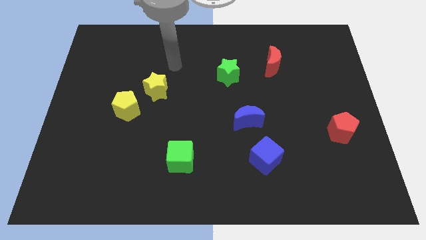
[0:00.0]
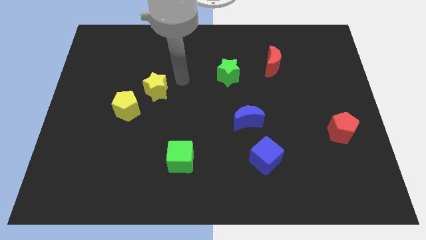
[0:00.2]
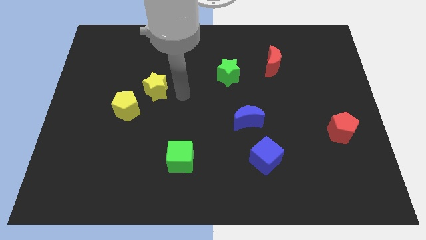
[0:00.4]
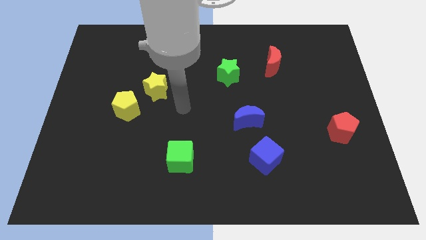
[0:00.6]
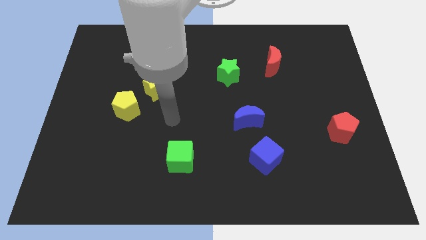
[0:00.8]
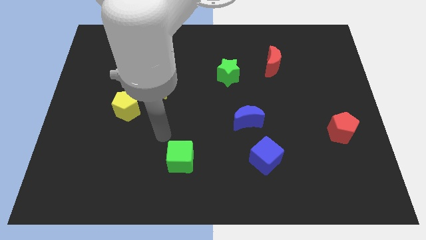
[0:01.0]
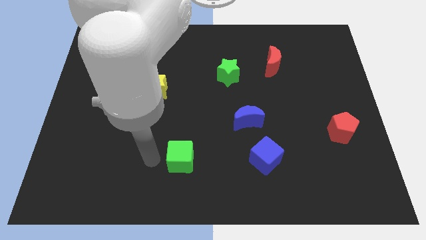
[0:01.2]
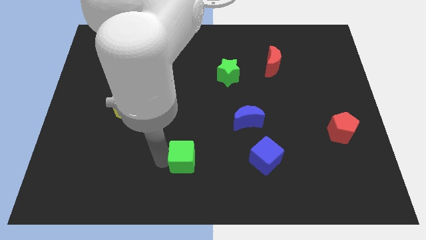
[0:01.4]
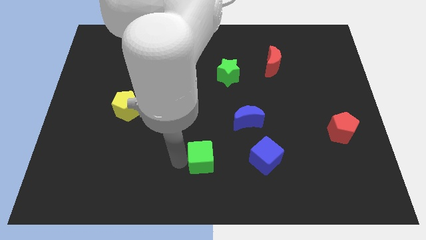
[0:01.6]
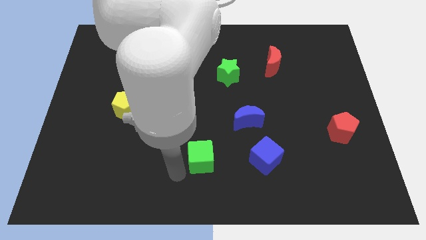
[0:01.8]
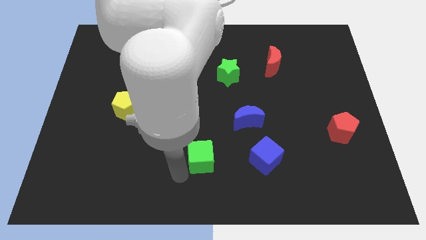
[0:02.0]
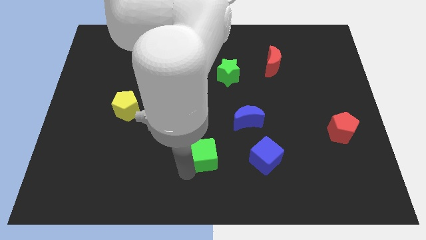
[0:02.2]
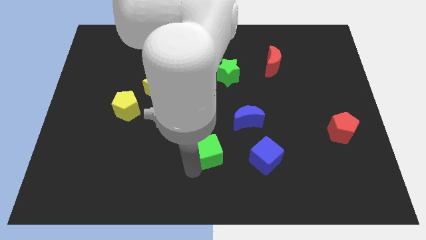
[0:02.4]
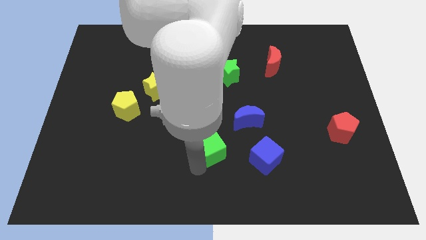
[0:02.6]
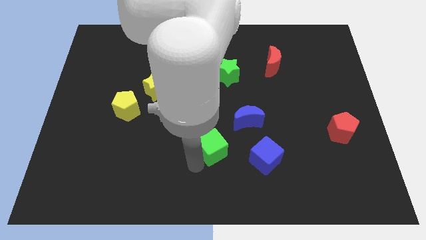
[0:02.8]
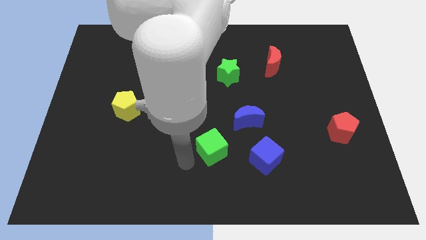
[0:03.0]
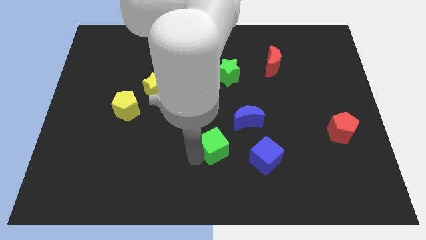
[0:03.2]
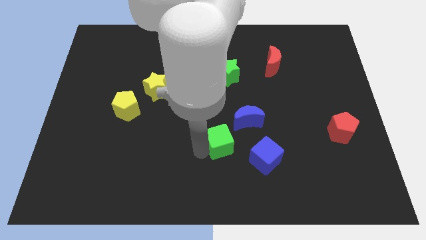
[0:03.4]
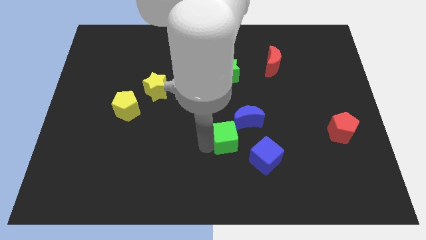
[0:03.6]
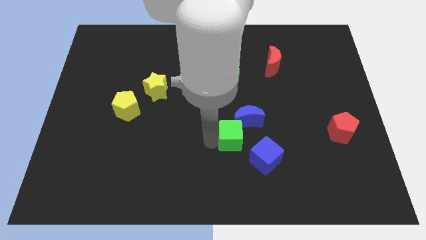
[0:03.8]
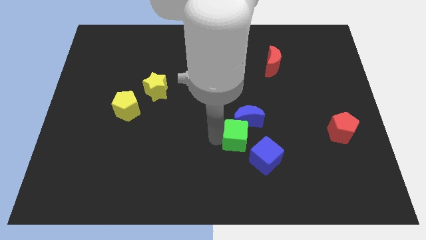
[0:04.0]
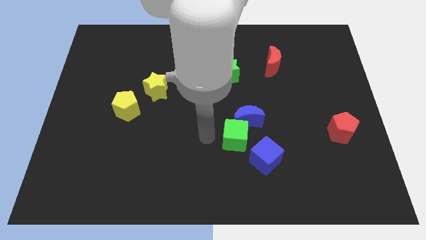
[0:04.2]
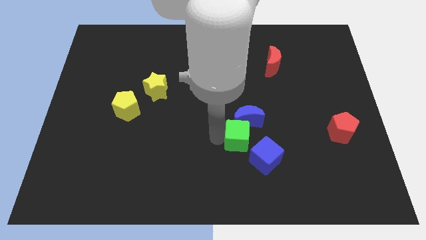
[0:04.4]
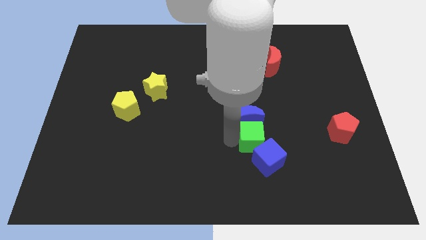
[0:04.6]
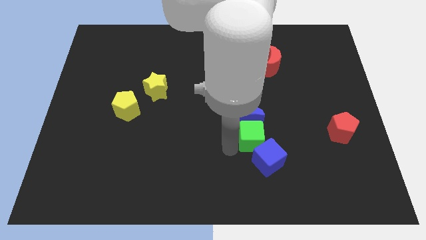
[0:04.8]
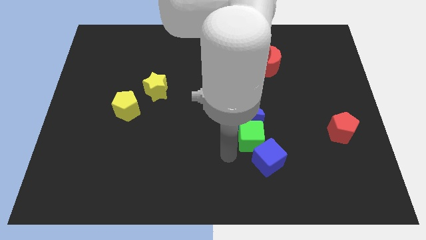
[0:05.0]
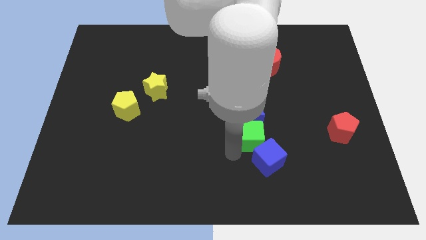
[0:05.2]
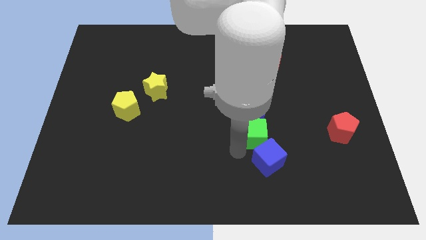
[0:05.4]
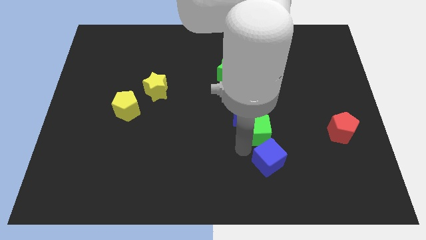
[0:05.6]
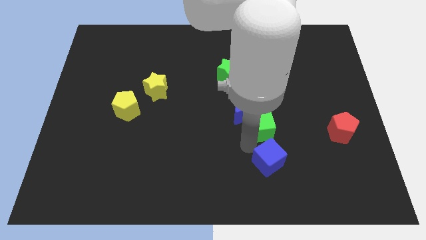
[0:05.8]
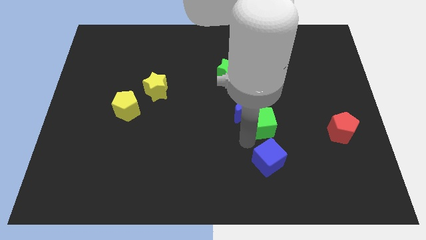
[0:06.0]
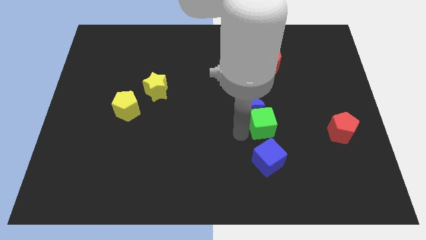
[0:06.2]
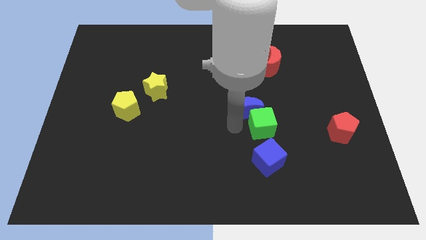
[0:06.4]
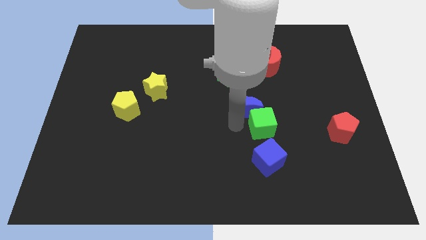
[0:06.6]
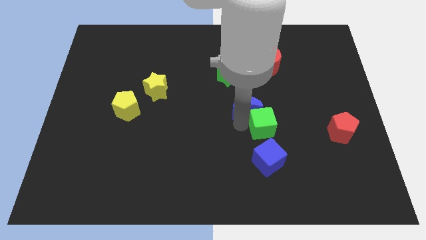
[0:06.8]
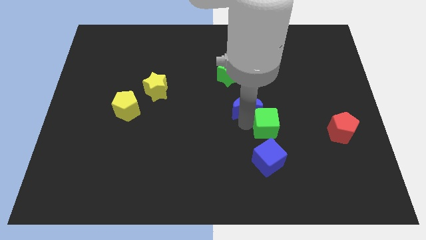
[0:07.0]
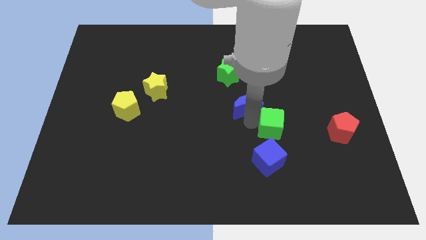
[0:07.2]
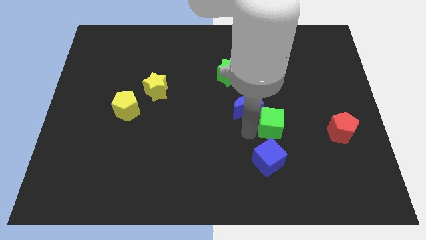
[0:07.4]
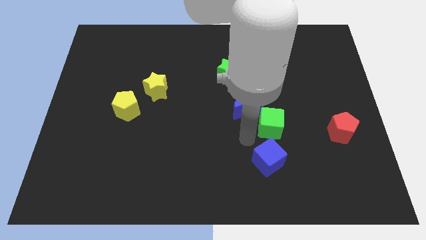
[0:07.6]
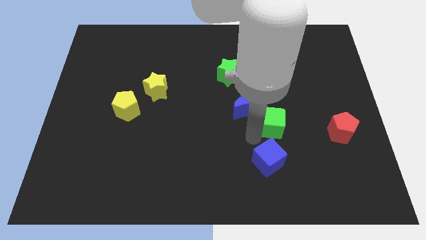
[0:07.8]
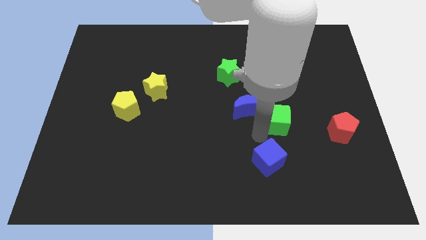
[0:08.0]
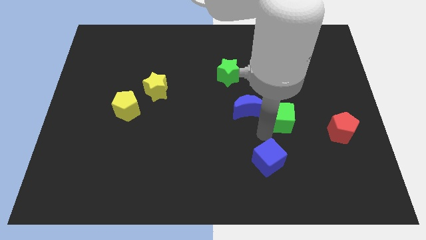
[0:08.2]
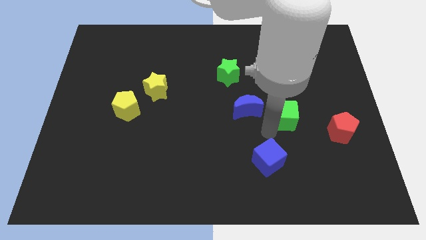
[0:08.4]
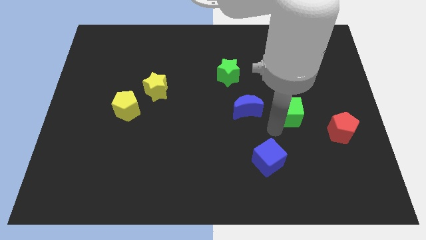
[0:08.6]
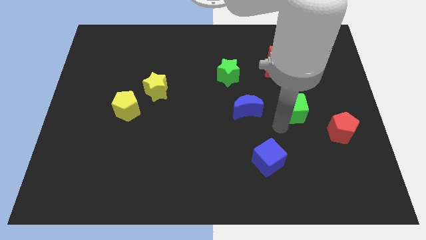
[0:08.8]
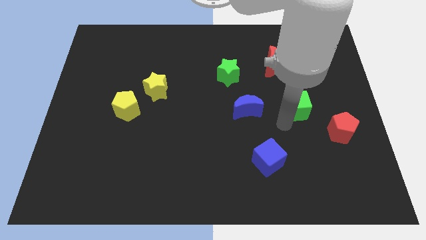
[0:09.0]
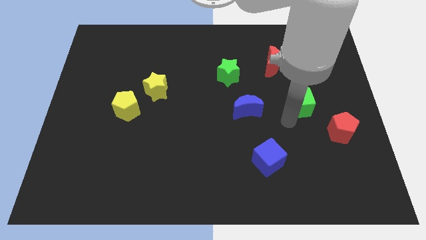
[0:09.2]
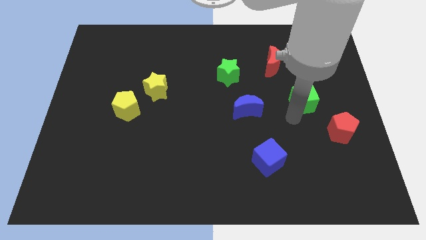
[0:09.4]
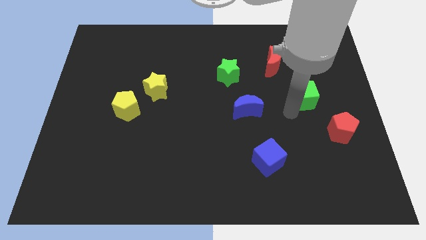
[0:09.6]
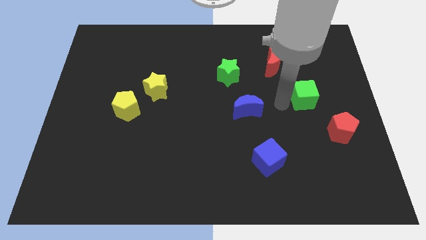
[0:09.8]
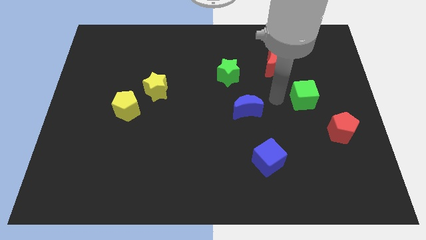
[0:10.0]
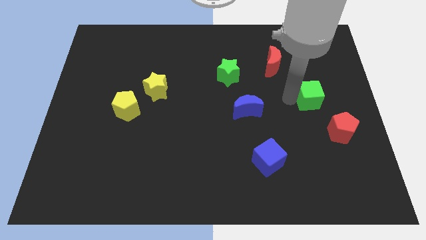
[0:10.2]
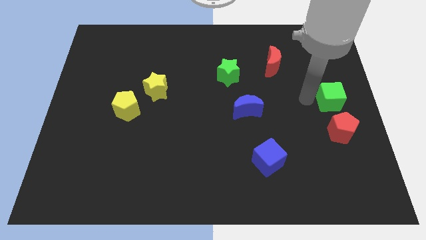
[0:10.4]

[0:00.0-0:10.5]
put the green cube to the right side

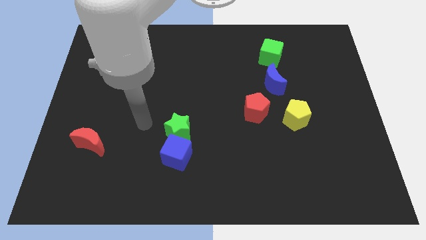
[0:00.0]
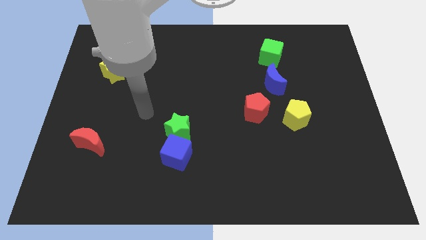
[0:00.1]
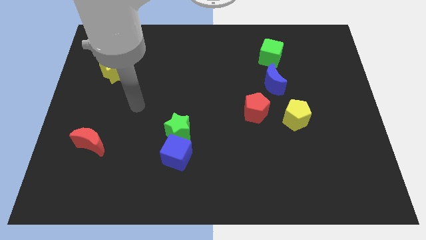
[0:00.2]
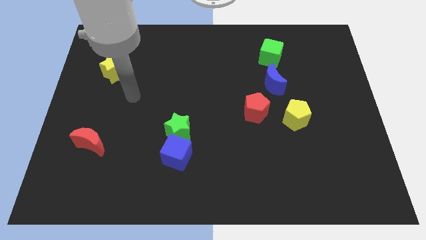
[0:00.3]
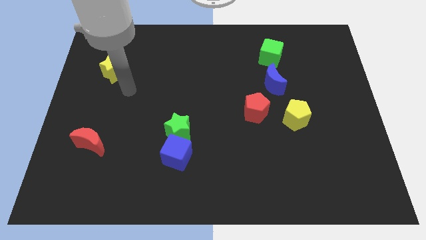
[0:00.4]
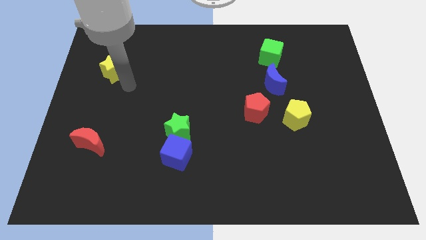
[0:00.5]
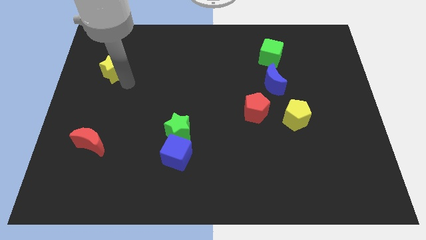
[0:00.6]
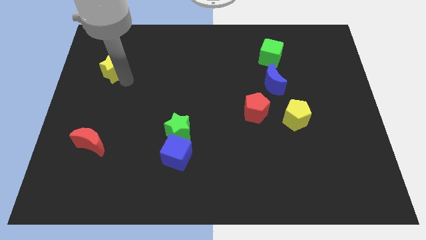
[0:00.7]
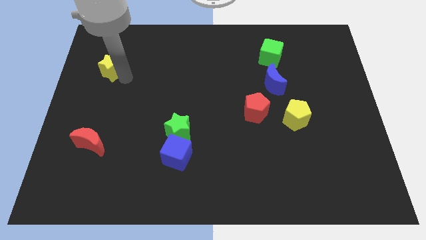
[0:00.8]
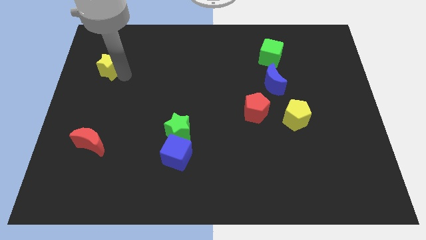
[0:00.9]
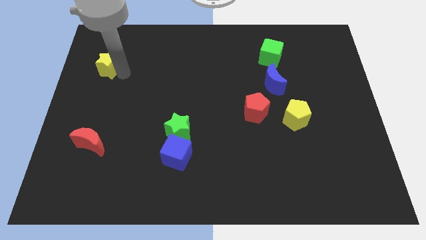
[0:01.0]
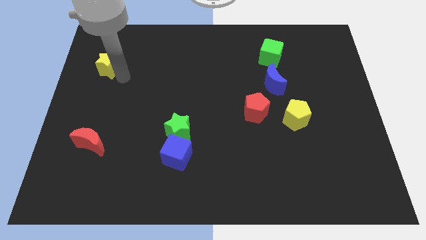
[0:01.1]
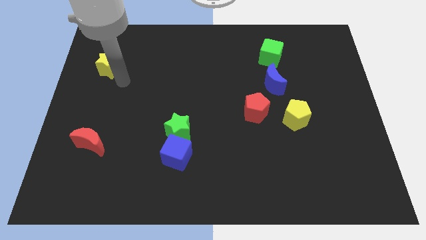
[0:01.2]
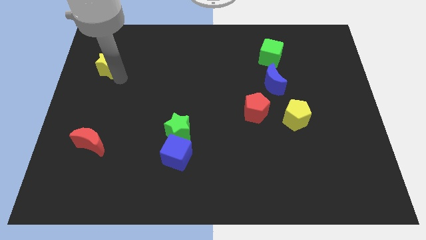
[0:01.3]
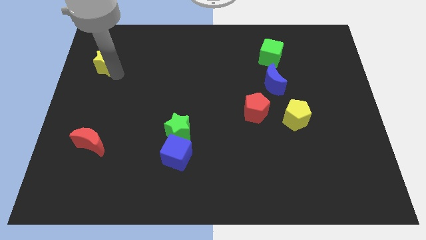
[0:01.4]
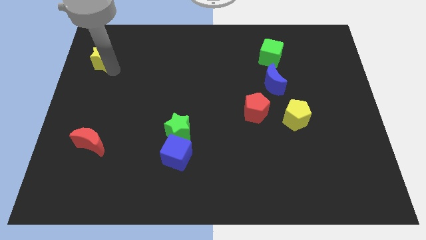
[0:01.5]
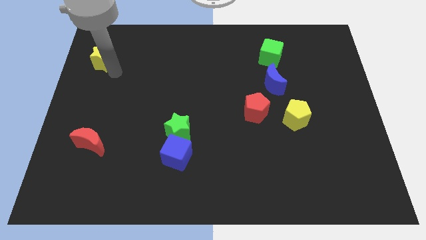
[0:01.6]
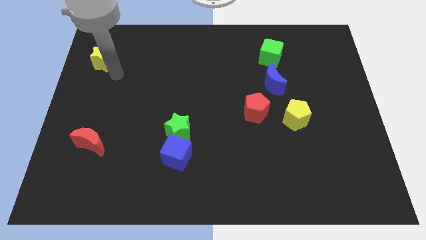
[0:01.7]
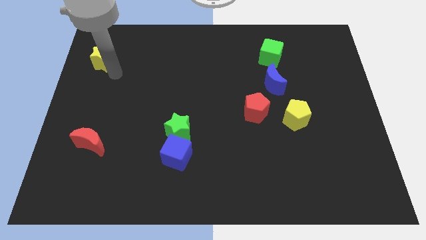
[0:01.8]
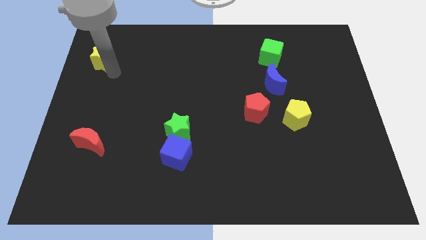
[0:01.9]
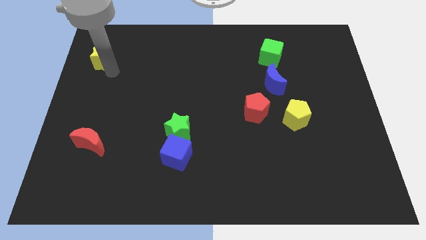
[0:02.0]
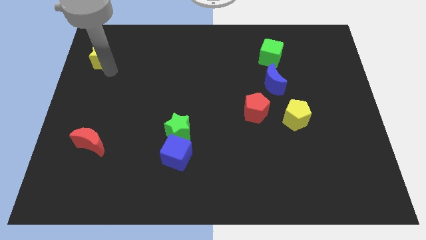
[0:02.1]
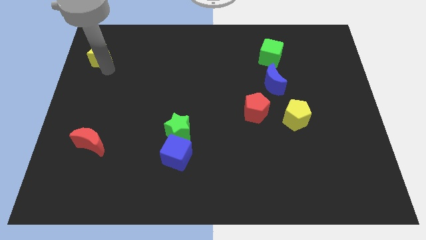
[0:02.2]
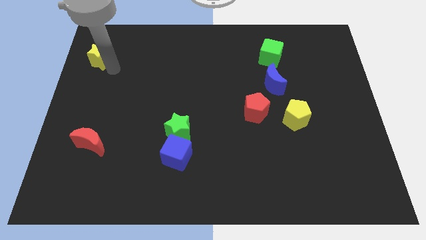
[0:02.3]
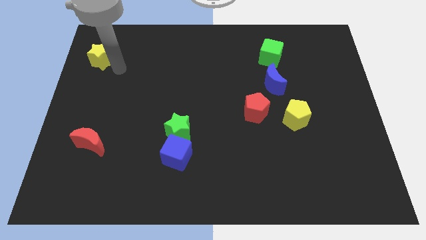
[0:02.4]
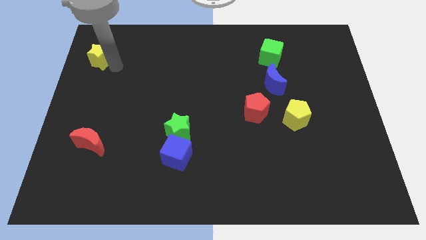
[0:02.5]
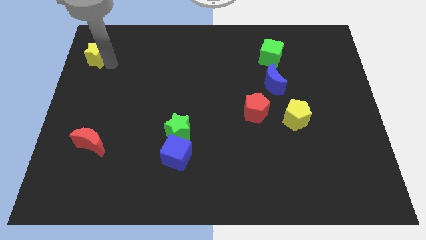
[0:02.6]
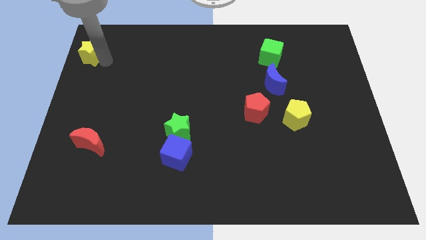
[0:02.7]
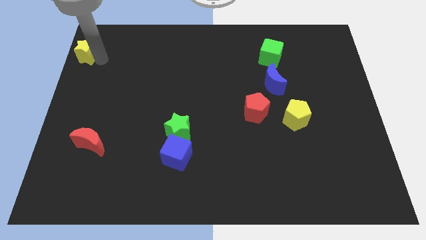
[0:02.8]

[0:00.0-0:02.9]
push the yellow star to the top left of the board
